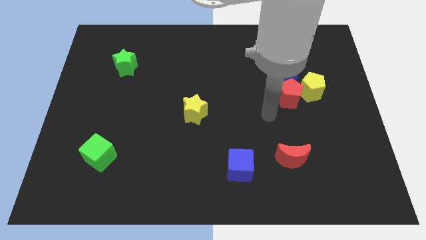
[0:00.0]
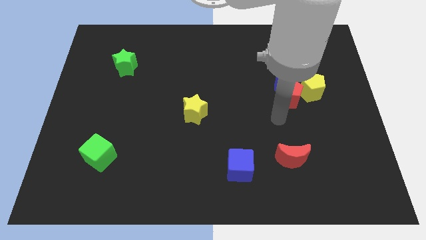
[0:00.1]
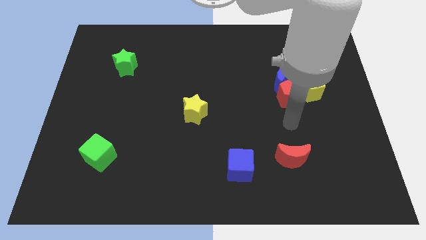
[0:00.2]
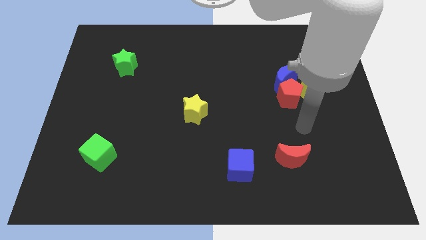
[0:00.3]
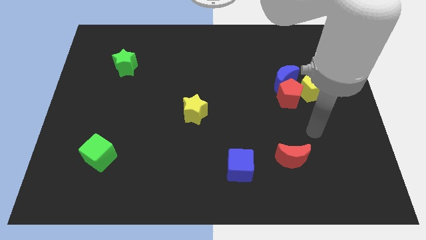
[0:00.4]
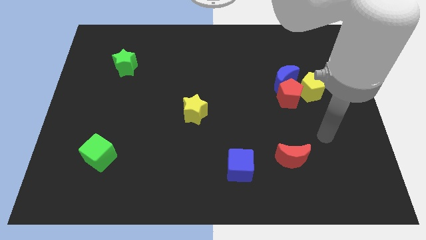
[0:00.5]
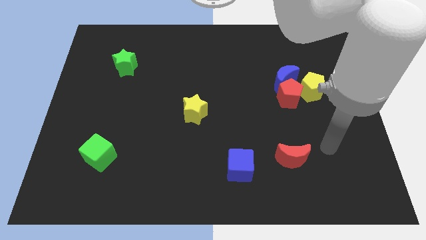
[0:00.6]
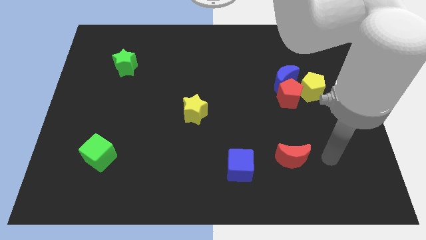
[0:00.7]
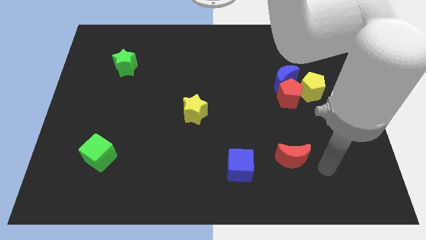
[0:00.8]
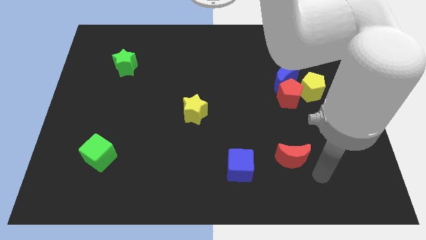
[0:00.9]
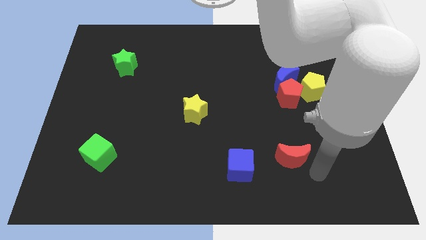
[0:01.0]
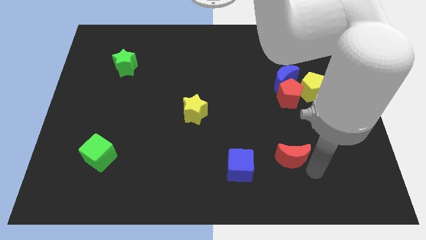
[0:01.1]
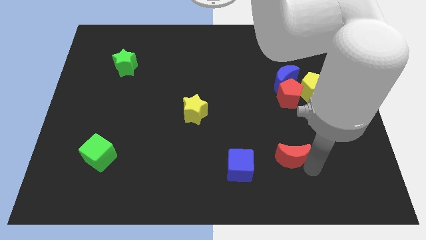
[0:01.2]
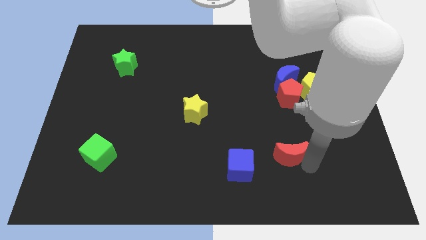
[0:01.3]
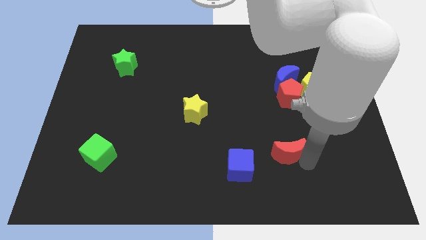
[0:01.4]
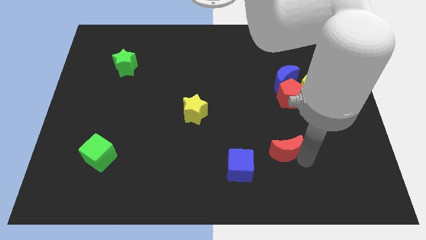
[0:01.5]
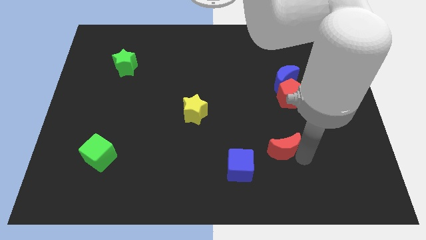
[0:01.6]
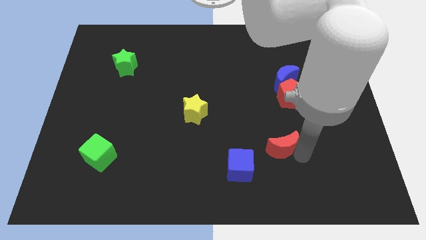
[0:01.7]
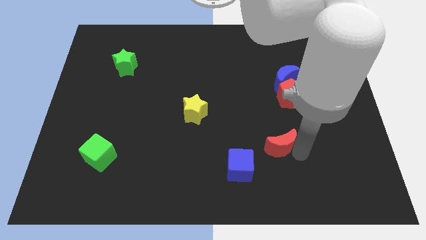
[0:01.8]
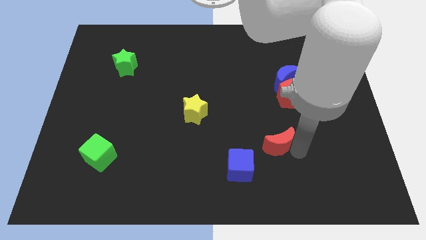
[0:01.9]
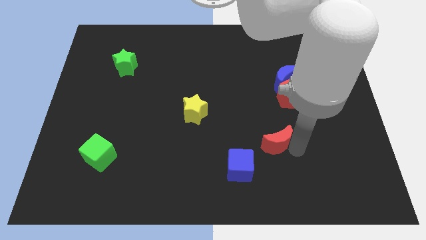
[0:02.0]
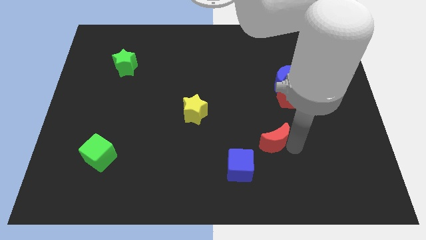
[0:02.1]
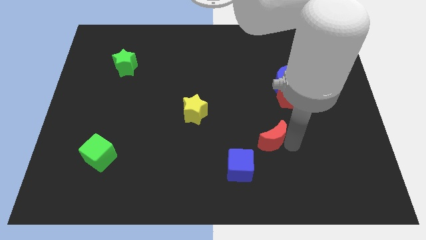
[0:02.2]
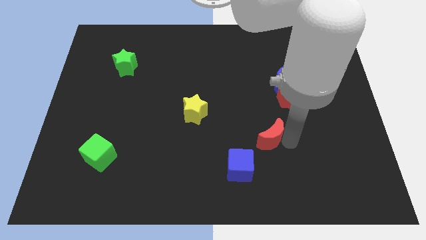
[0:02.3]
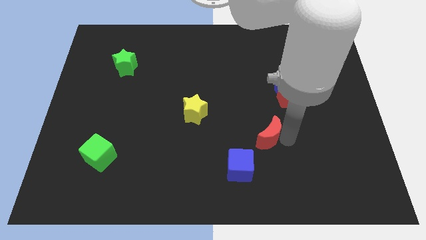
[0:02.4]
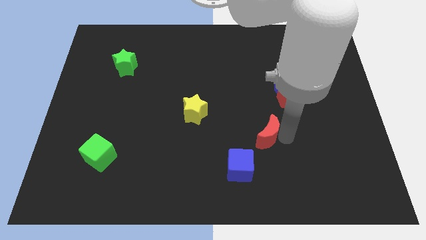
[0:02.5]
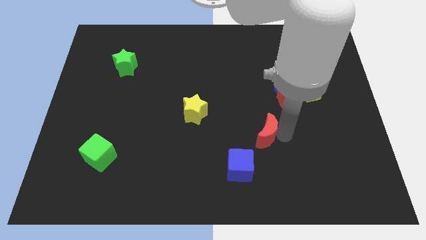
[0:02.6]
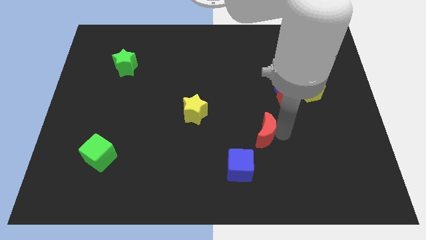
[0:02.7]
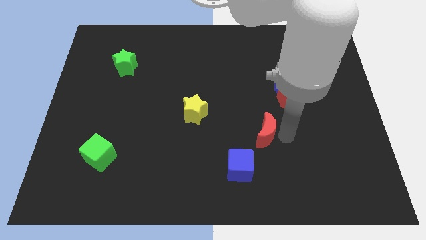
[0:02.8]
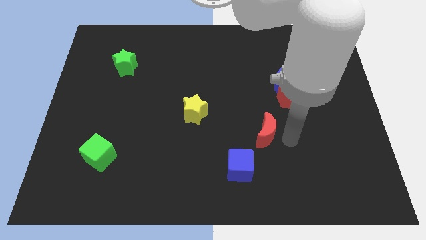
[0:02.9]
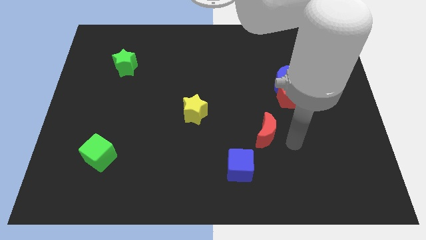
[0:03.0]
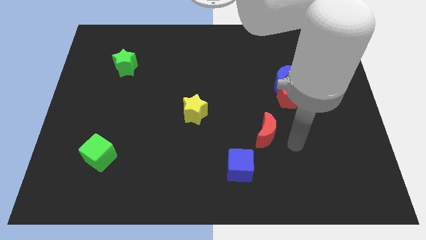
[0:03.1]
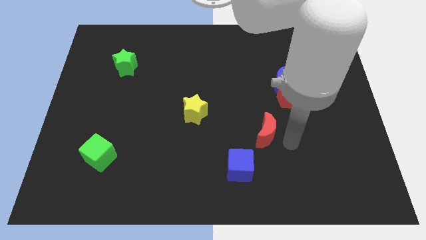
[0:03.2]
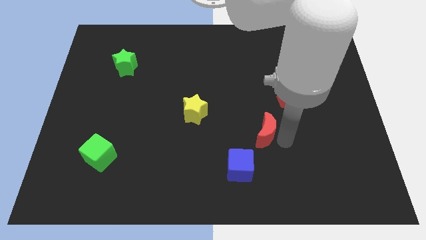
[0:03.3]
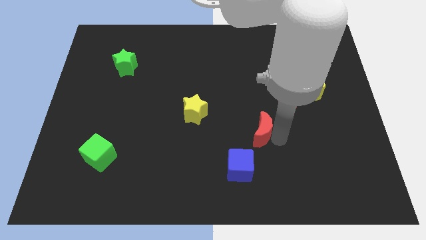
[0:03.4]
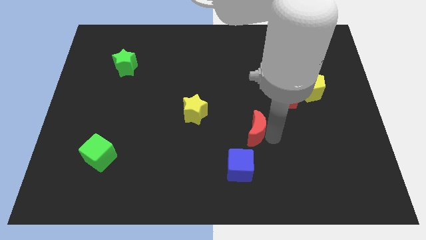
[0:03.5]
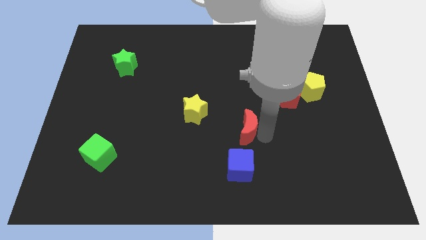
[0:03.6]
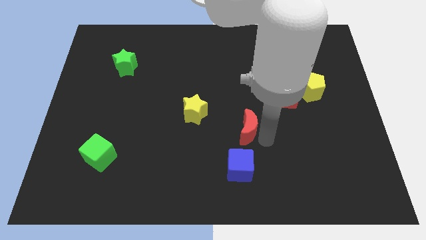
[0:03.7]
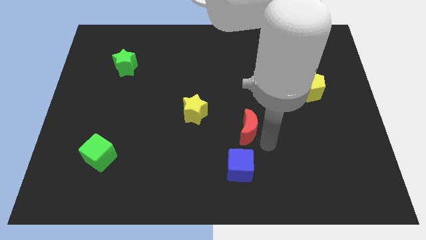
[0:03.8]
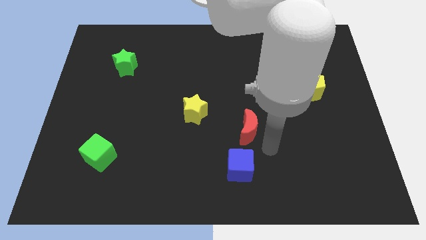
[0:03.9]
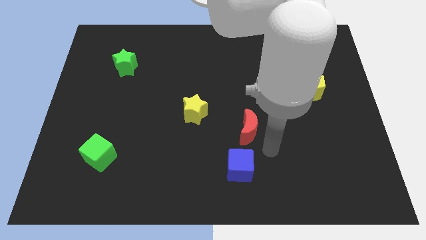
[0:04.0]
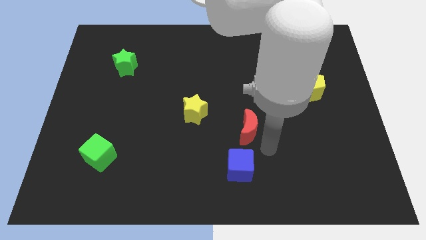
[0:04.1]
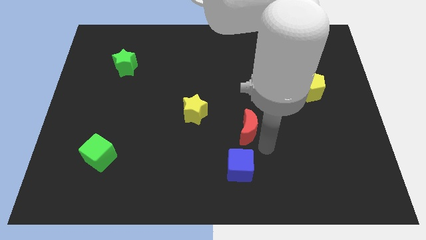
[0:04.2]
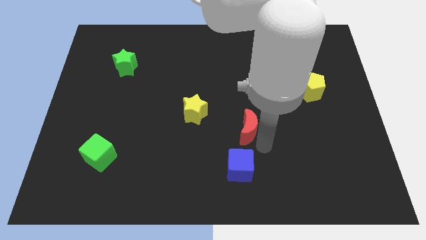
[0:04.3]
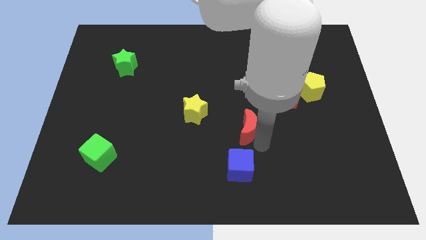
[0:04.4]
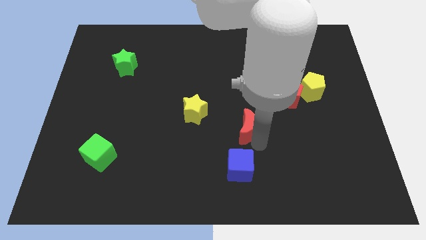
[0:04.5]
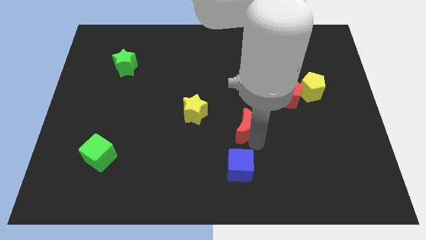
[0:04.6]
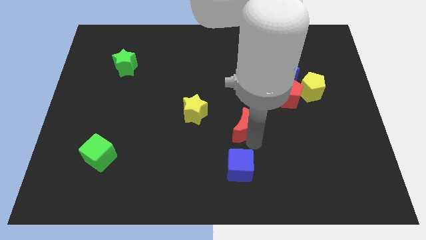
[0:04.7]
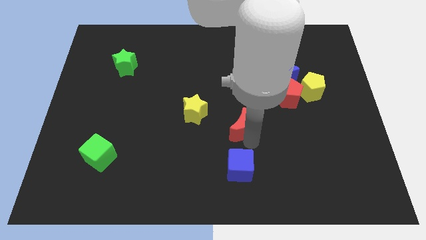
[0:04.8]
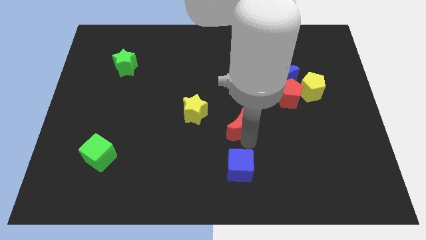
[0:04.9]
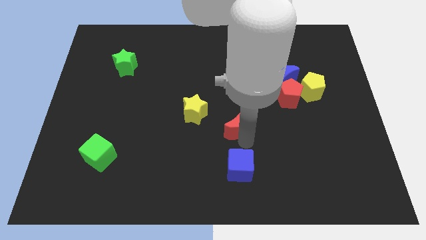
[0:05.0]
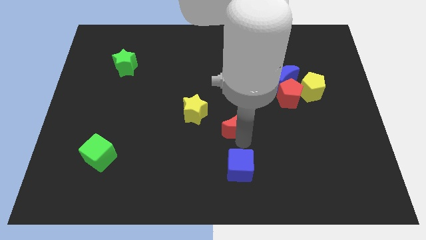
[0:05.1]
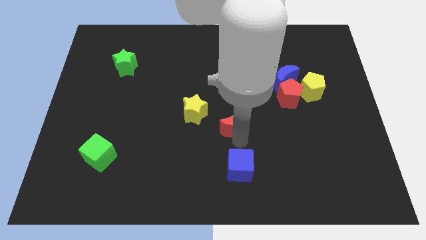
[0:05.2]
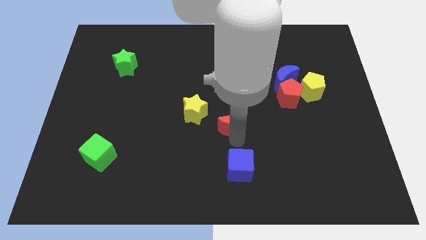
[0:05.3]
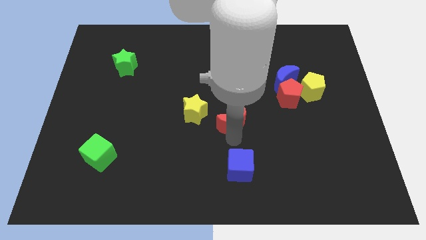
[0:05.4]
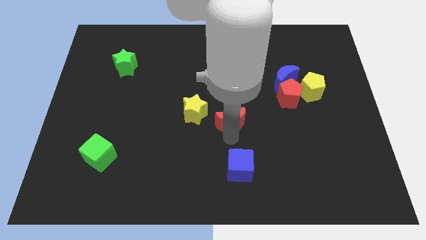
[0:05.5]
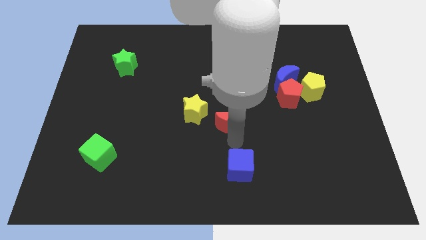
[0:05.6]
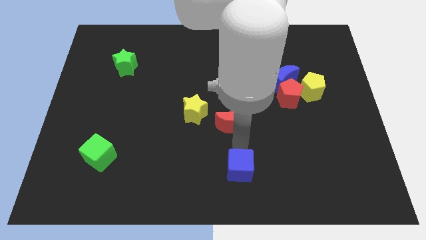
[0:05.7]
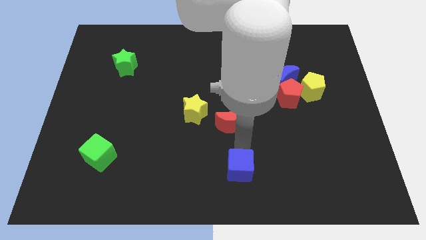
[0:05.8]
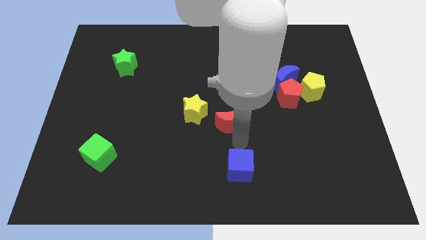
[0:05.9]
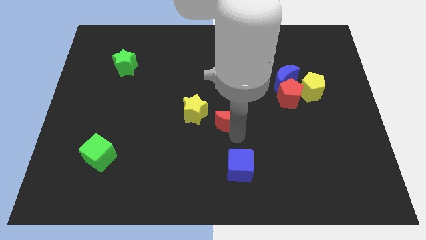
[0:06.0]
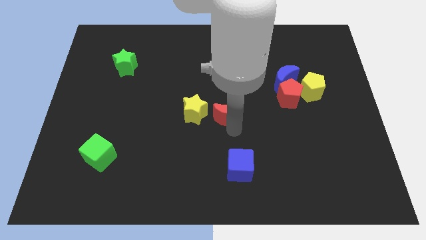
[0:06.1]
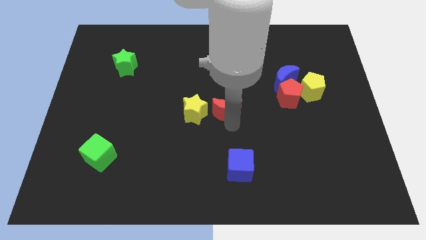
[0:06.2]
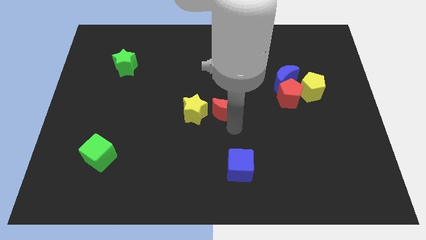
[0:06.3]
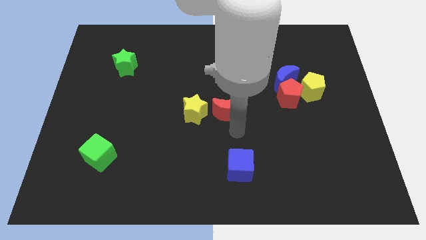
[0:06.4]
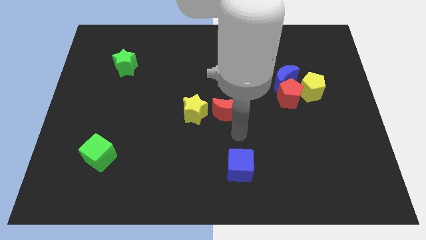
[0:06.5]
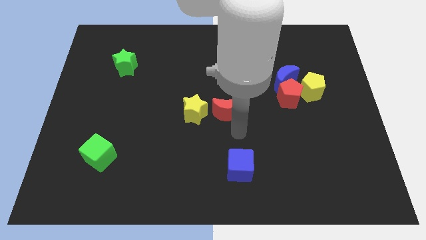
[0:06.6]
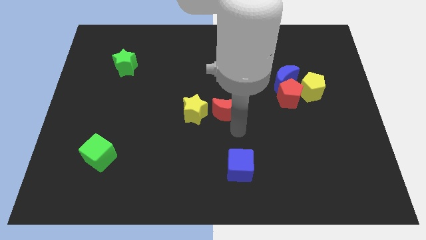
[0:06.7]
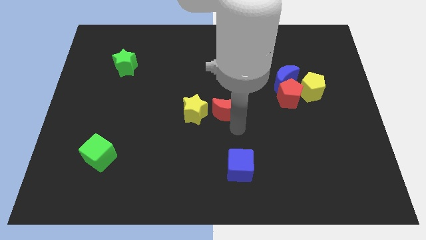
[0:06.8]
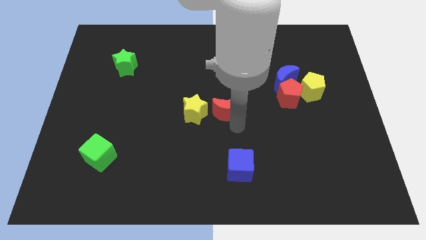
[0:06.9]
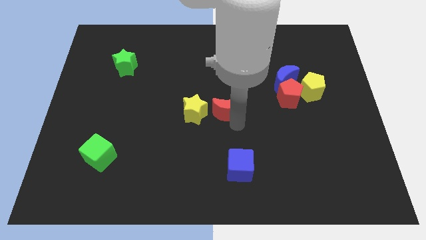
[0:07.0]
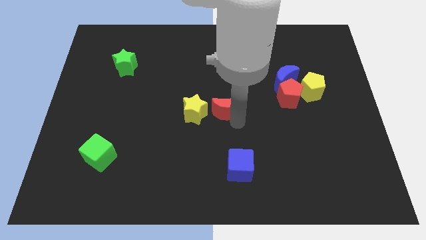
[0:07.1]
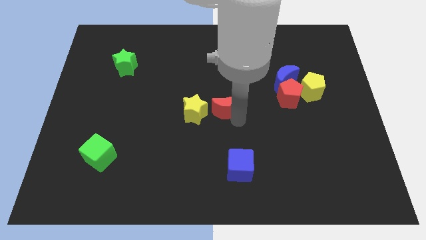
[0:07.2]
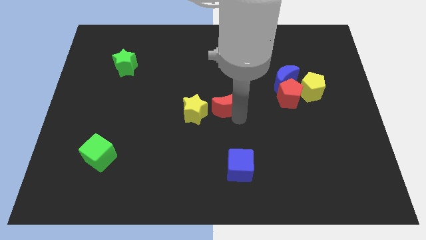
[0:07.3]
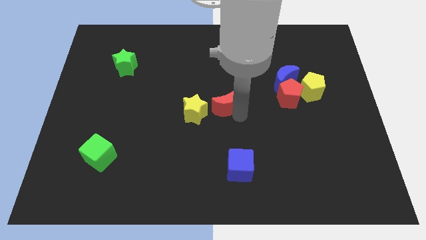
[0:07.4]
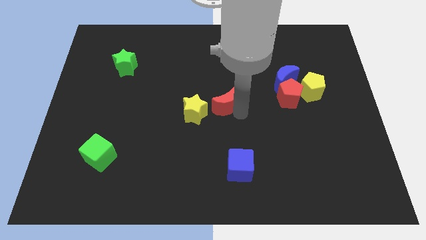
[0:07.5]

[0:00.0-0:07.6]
move the red moon upwards and to the left

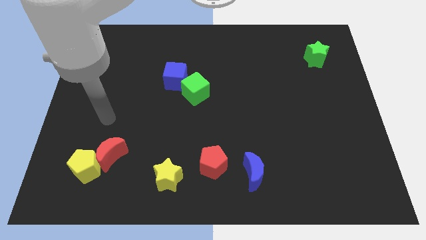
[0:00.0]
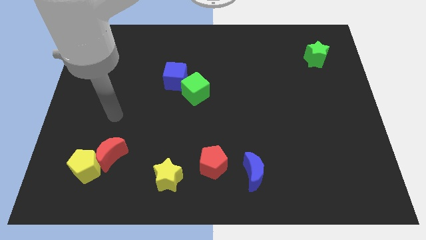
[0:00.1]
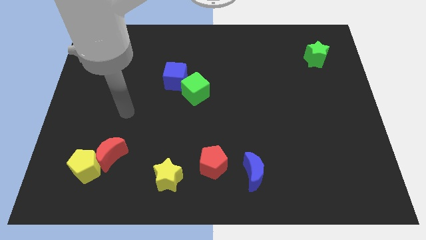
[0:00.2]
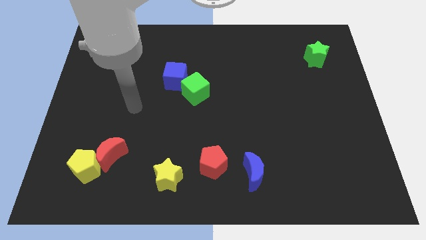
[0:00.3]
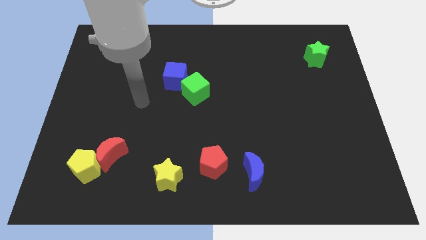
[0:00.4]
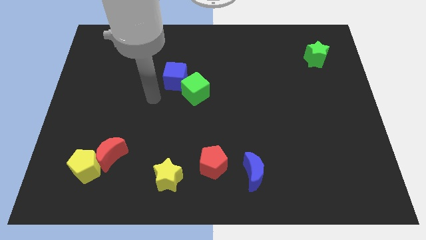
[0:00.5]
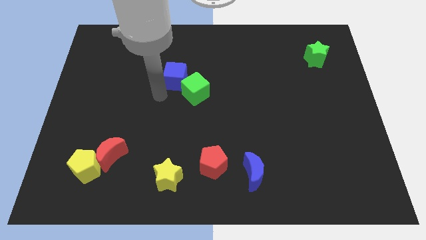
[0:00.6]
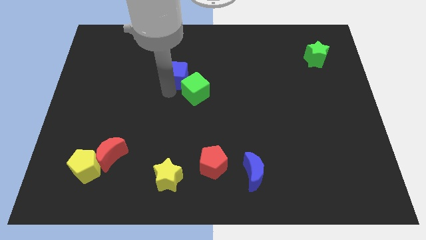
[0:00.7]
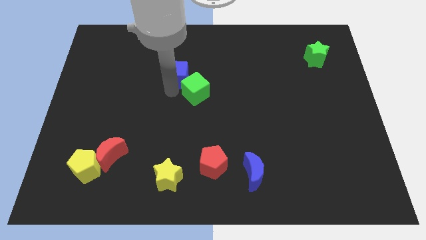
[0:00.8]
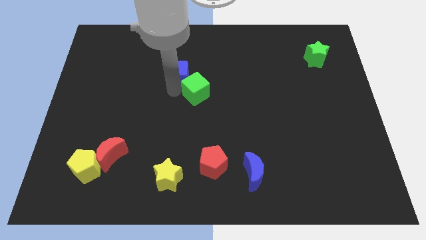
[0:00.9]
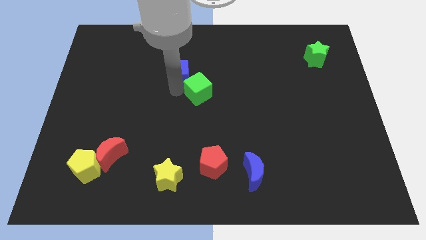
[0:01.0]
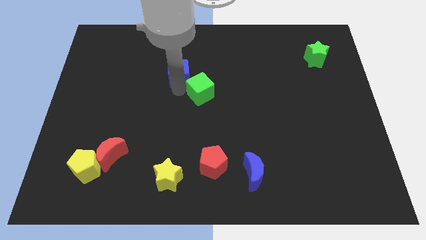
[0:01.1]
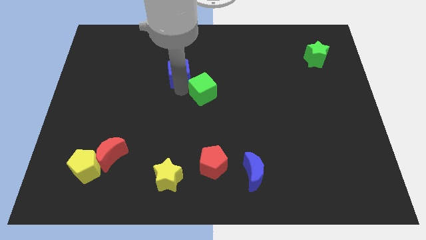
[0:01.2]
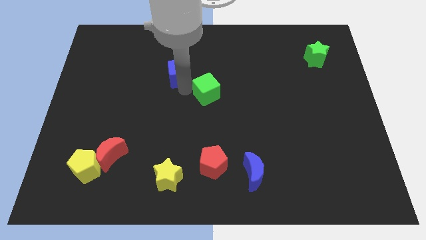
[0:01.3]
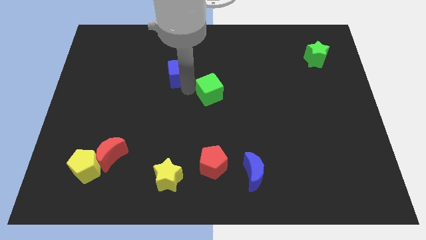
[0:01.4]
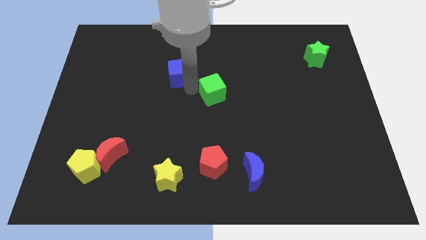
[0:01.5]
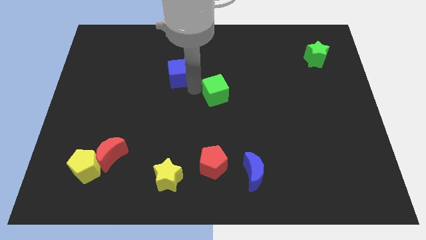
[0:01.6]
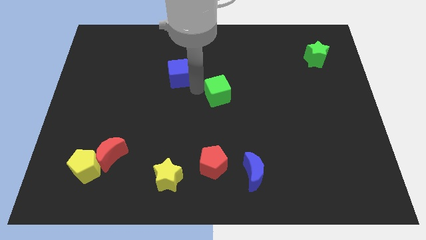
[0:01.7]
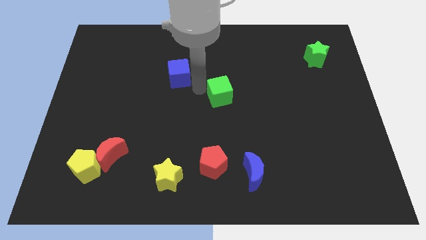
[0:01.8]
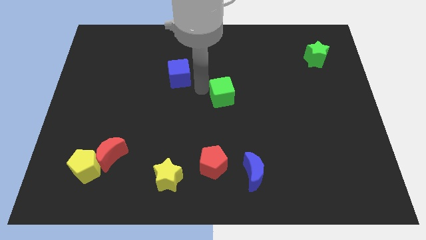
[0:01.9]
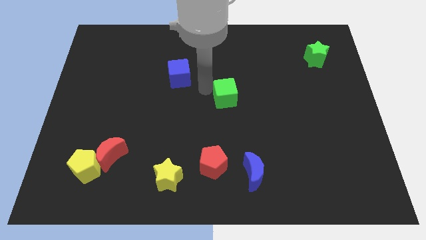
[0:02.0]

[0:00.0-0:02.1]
move the green cube slightly to the right
